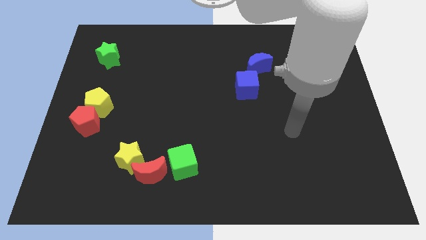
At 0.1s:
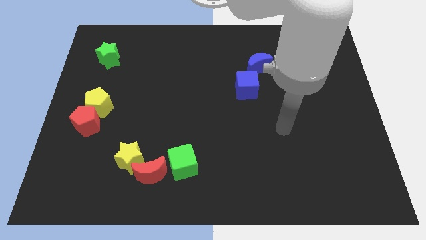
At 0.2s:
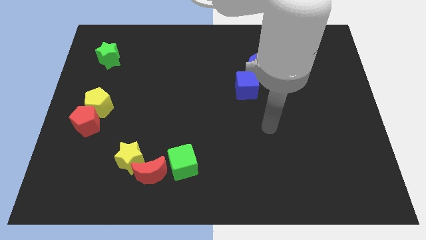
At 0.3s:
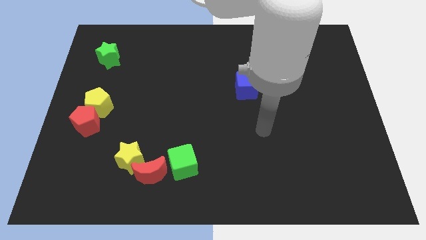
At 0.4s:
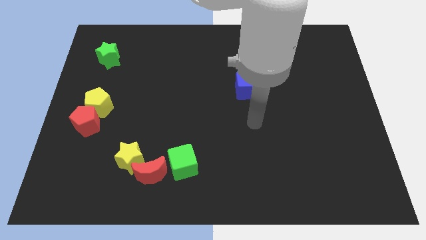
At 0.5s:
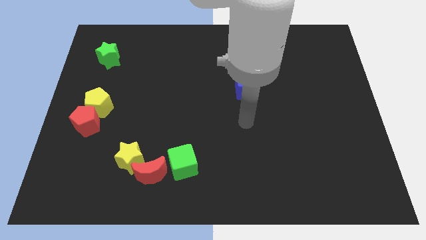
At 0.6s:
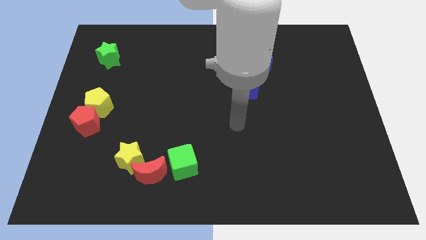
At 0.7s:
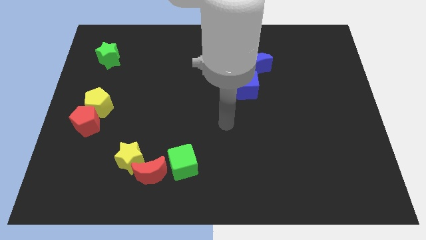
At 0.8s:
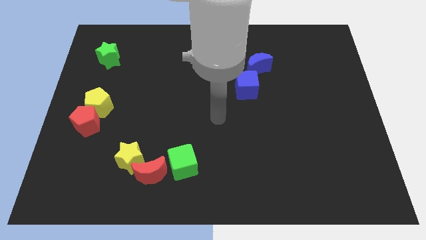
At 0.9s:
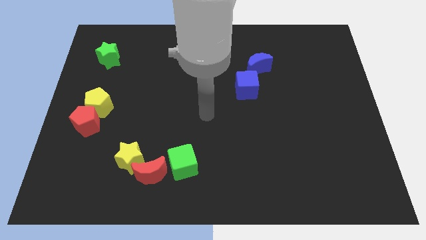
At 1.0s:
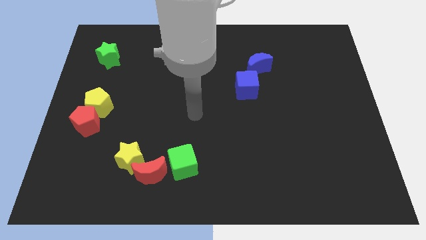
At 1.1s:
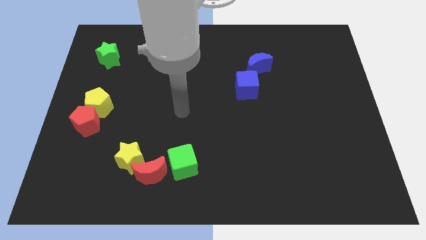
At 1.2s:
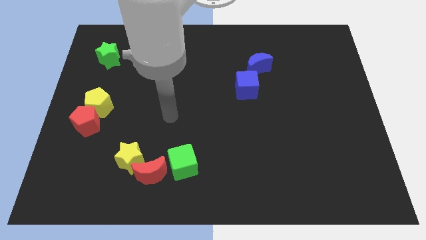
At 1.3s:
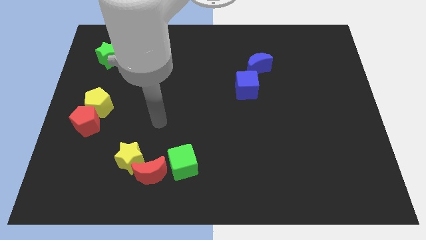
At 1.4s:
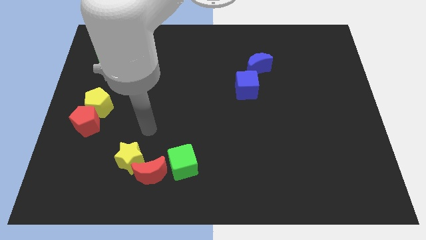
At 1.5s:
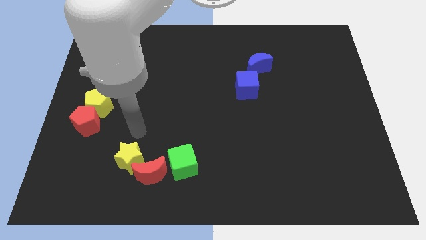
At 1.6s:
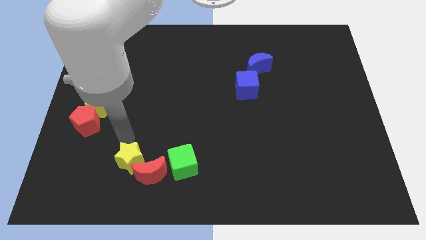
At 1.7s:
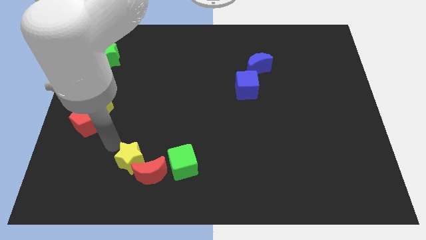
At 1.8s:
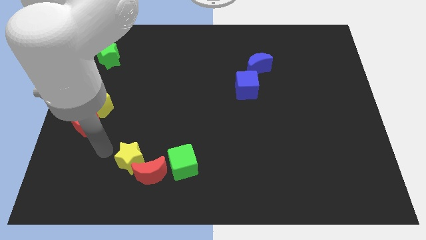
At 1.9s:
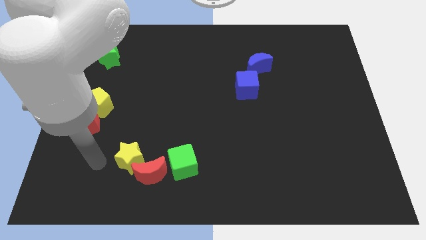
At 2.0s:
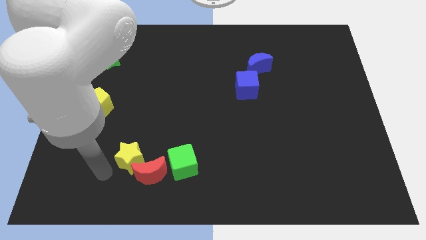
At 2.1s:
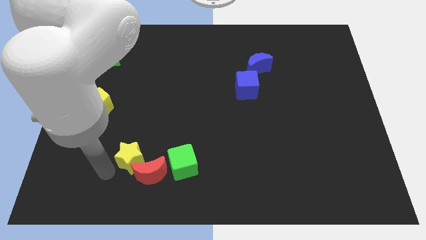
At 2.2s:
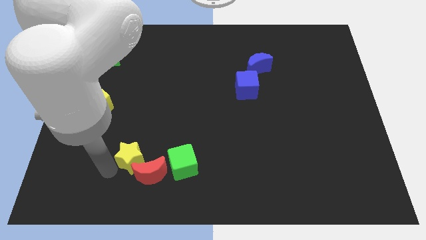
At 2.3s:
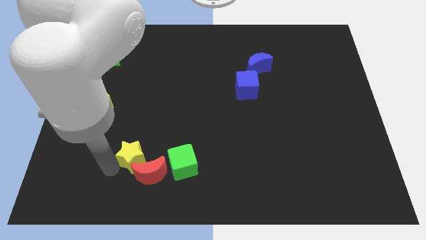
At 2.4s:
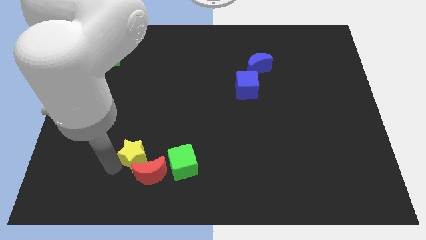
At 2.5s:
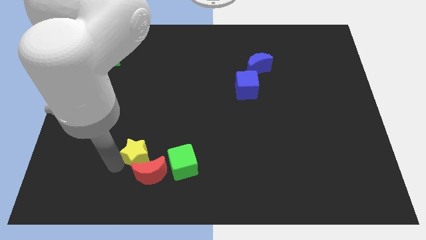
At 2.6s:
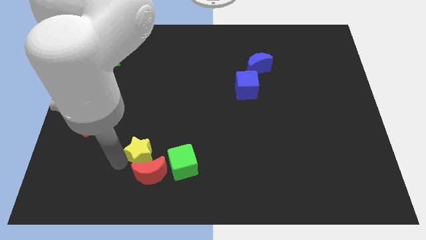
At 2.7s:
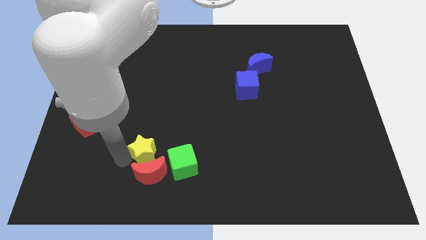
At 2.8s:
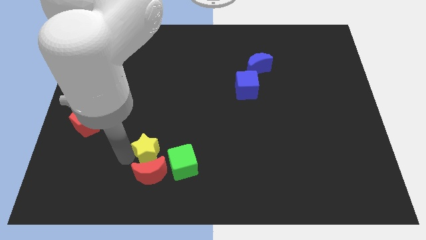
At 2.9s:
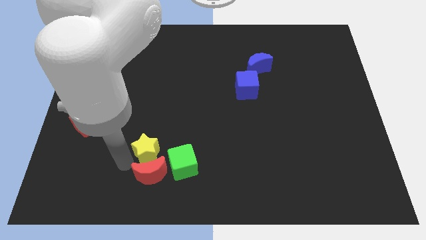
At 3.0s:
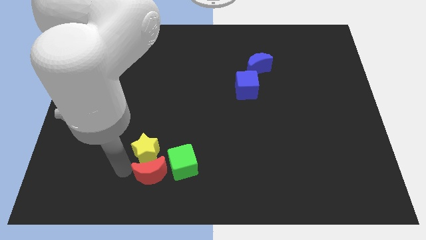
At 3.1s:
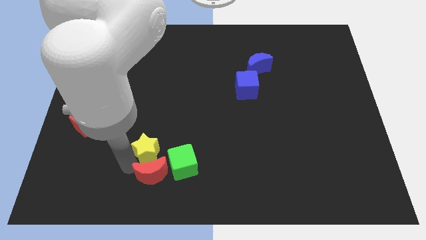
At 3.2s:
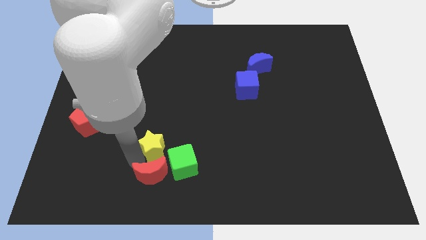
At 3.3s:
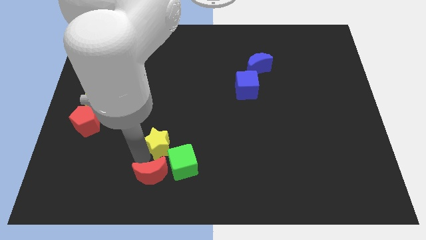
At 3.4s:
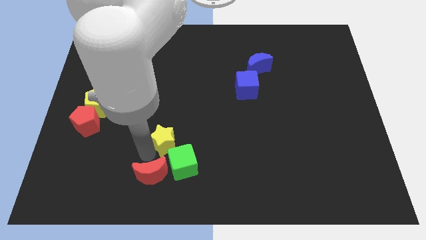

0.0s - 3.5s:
push the yellow star up and then to the right somewhat

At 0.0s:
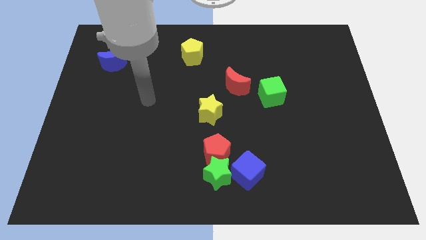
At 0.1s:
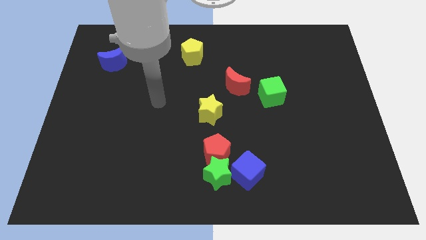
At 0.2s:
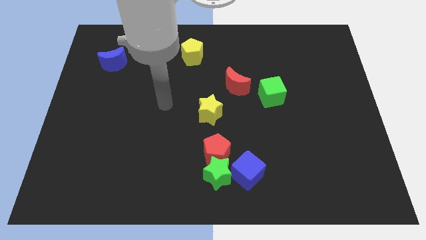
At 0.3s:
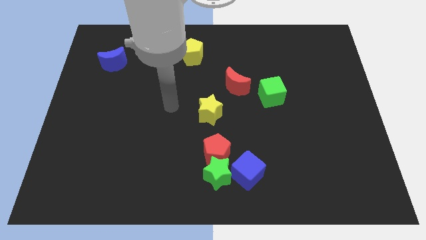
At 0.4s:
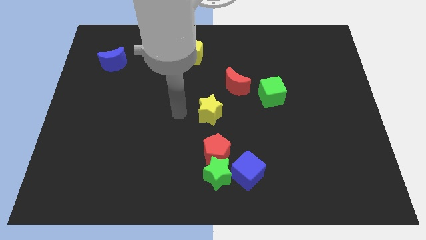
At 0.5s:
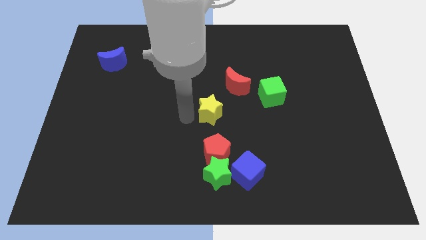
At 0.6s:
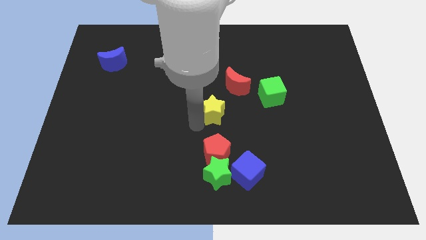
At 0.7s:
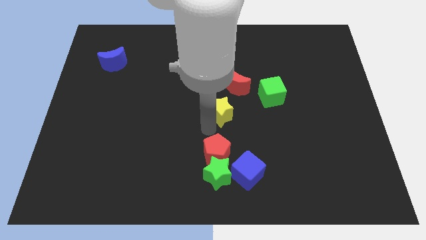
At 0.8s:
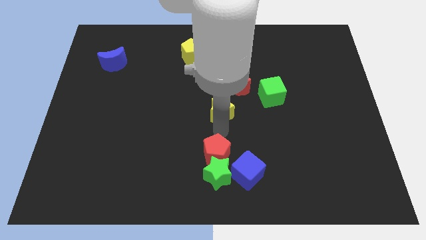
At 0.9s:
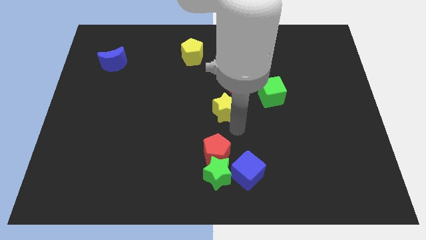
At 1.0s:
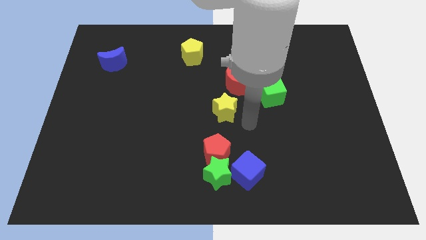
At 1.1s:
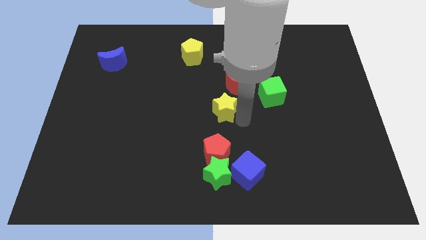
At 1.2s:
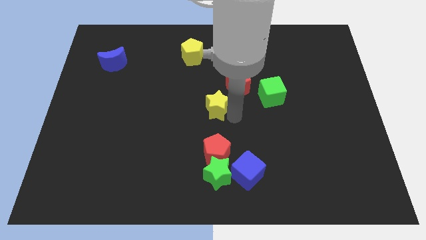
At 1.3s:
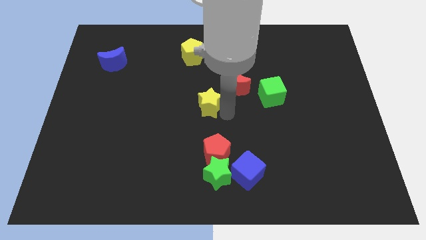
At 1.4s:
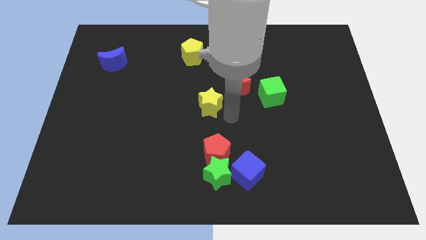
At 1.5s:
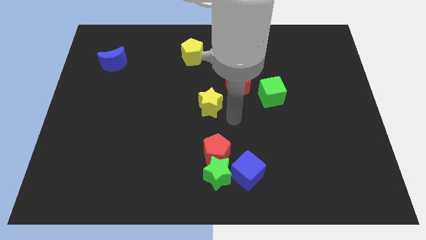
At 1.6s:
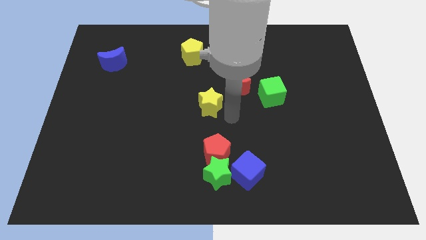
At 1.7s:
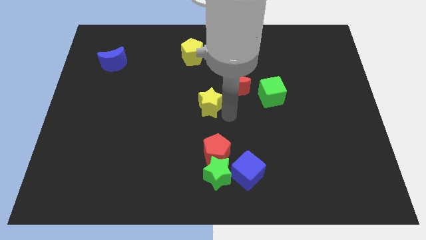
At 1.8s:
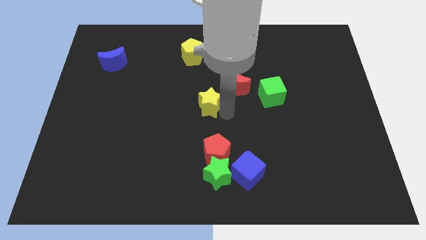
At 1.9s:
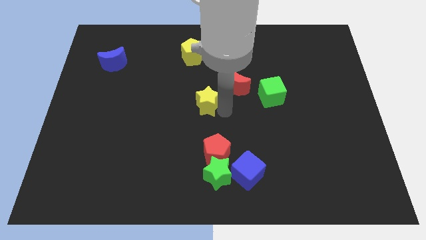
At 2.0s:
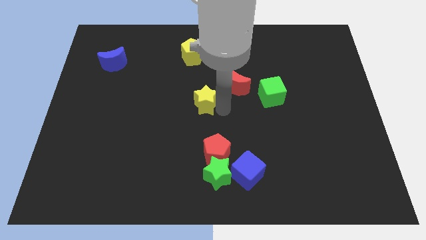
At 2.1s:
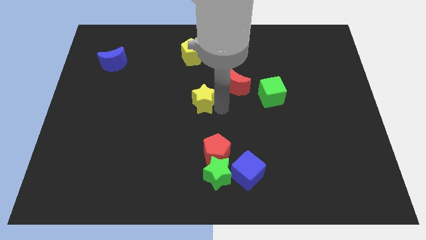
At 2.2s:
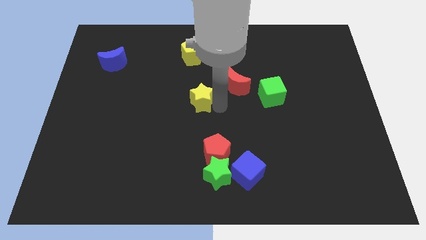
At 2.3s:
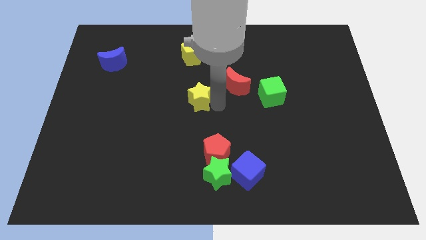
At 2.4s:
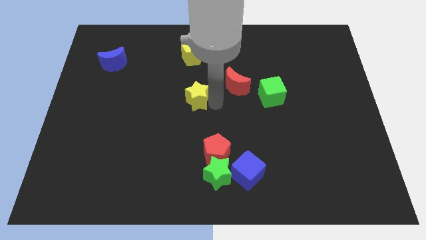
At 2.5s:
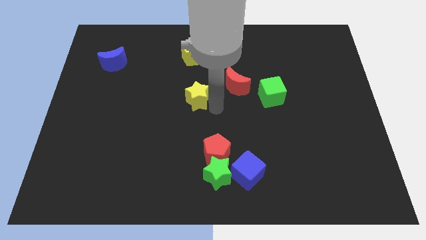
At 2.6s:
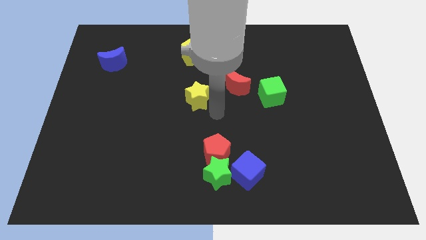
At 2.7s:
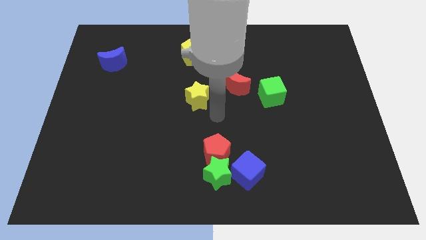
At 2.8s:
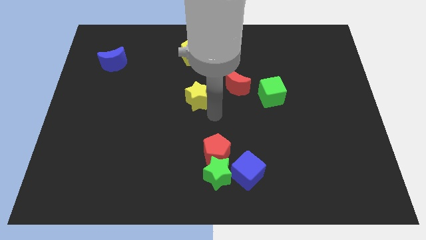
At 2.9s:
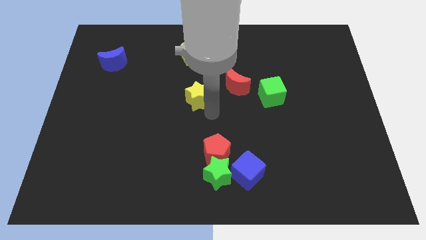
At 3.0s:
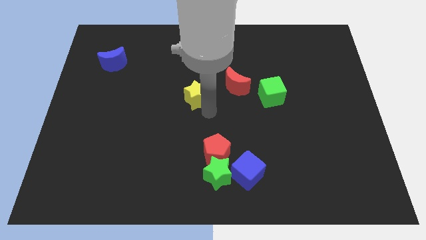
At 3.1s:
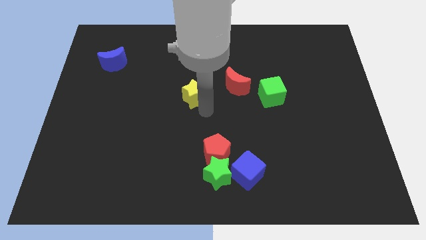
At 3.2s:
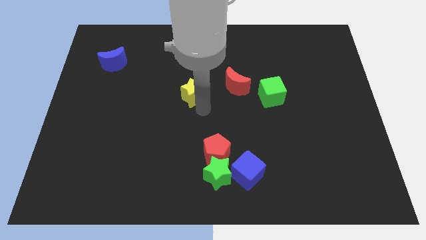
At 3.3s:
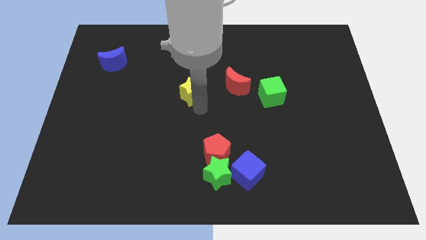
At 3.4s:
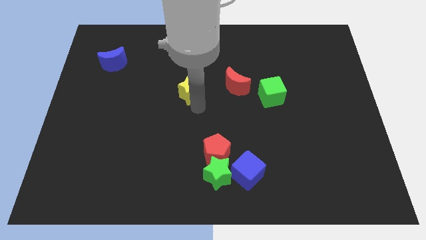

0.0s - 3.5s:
move the yellow star a little bit up and left

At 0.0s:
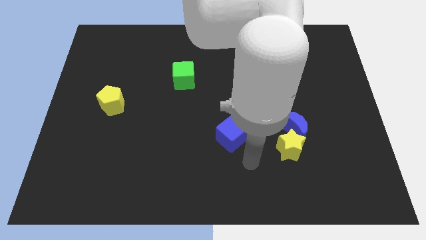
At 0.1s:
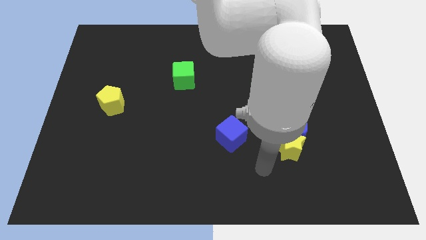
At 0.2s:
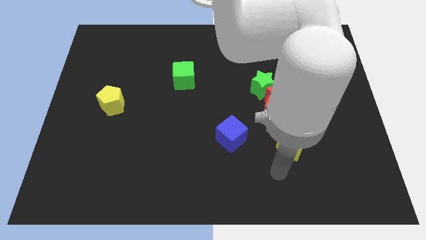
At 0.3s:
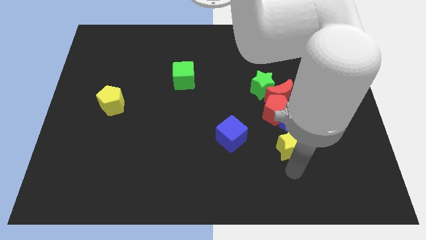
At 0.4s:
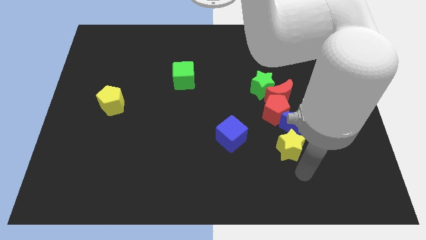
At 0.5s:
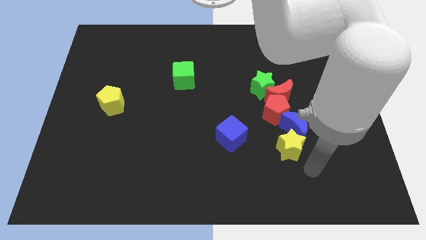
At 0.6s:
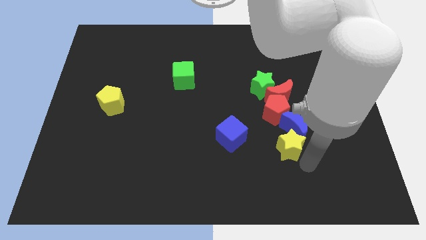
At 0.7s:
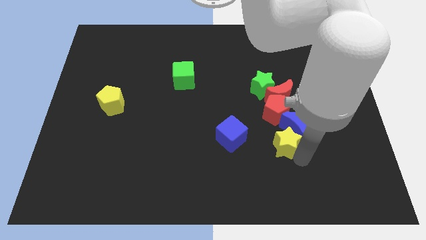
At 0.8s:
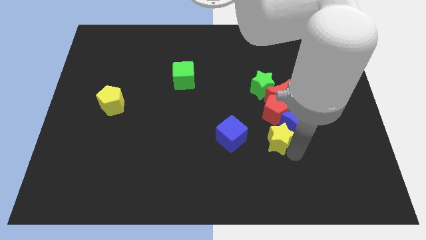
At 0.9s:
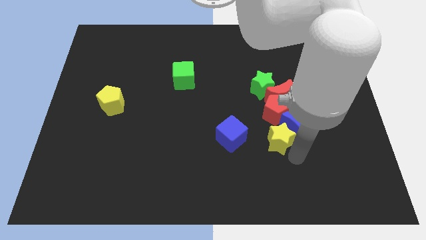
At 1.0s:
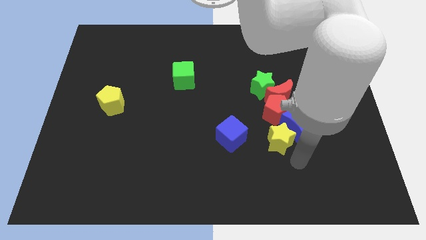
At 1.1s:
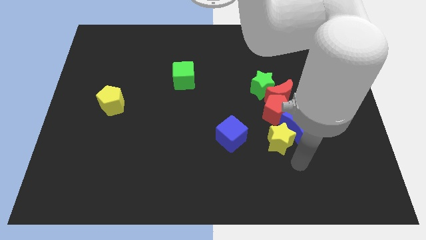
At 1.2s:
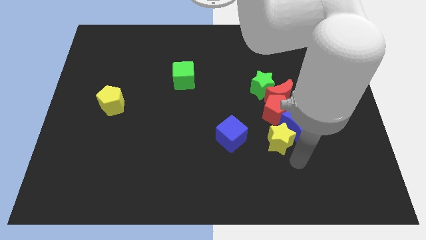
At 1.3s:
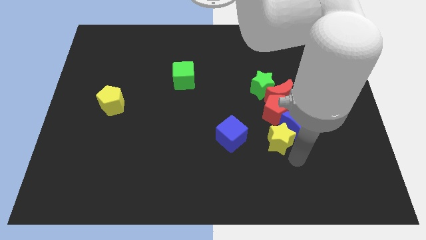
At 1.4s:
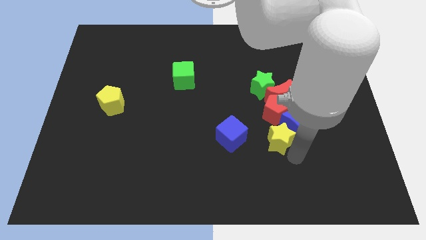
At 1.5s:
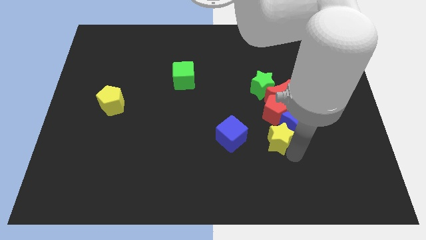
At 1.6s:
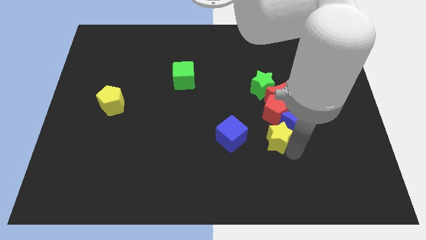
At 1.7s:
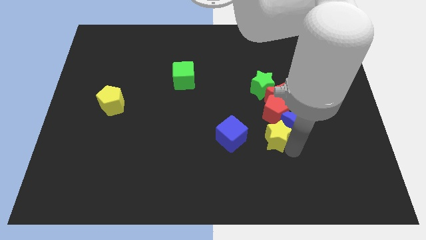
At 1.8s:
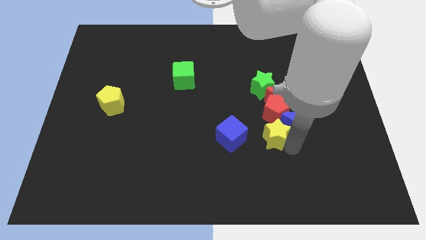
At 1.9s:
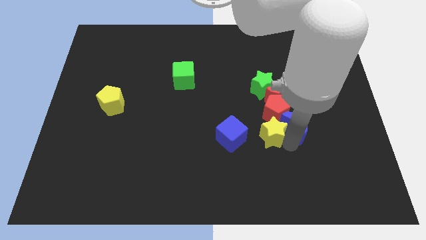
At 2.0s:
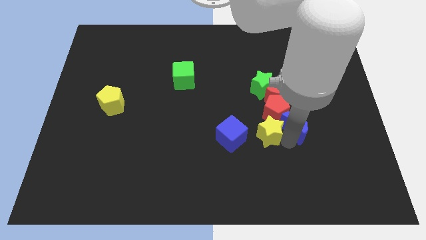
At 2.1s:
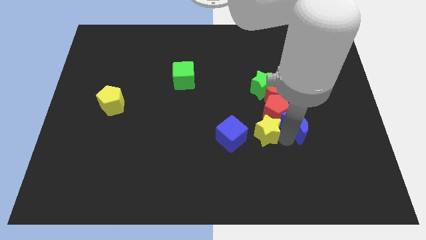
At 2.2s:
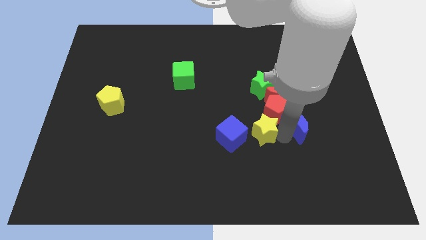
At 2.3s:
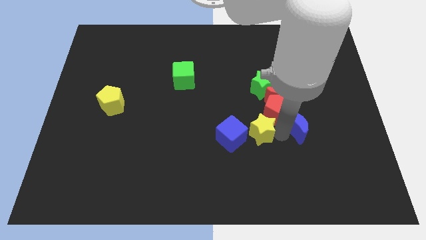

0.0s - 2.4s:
slide the yellow star somewhat diagonally upwards and left
